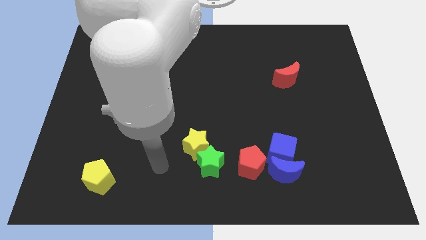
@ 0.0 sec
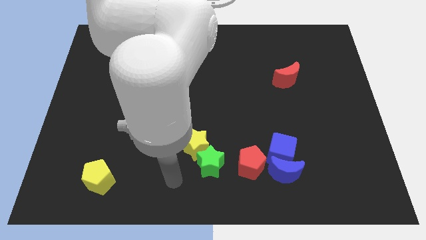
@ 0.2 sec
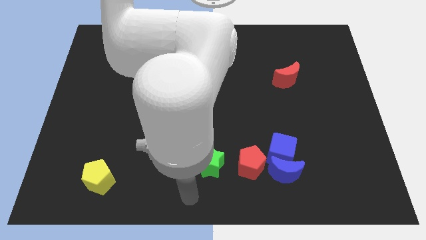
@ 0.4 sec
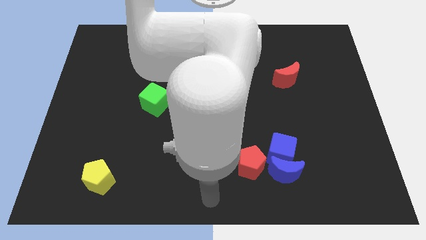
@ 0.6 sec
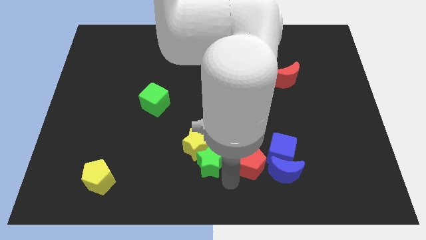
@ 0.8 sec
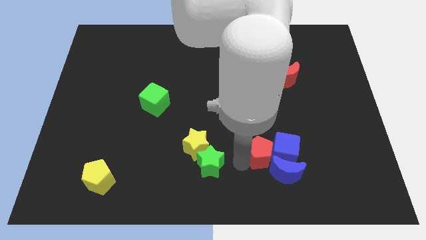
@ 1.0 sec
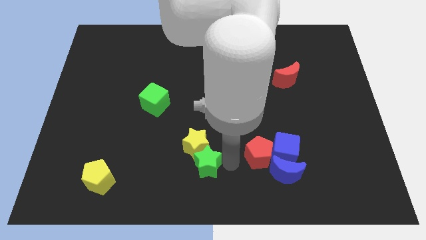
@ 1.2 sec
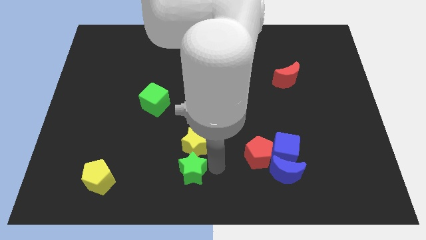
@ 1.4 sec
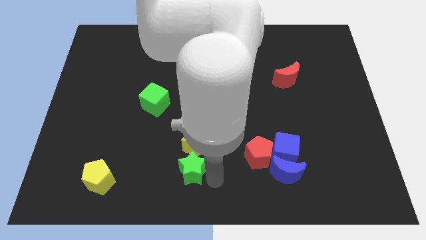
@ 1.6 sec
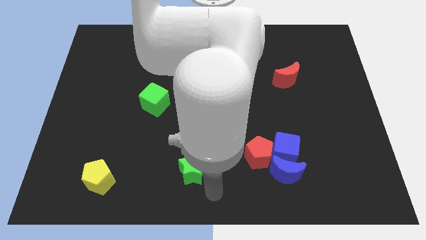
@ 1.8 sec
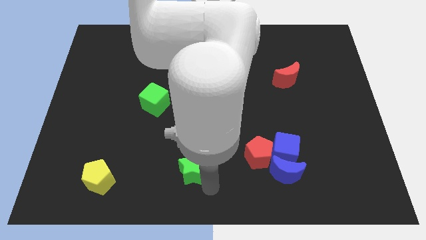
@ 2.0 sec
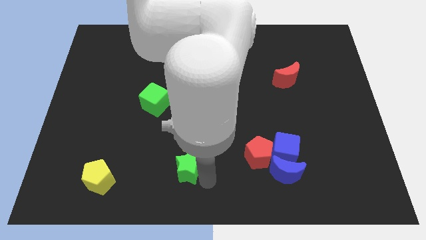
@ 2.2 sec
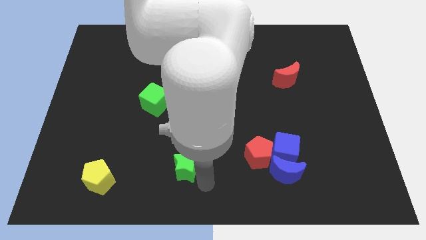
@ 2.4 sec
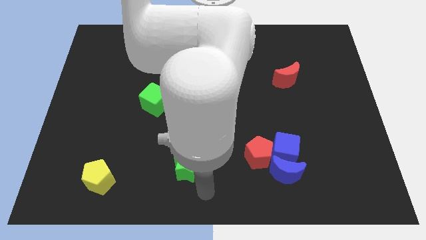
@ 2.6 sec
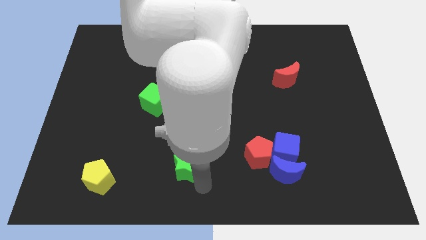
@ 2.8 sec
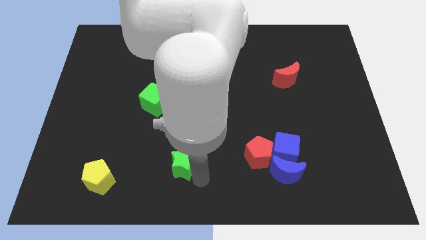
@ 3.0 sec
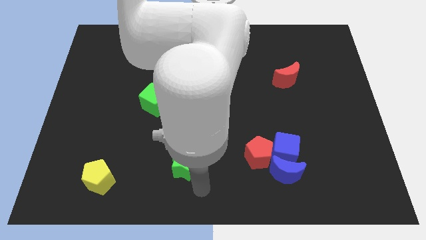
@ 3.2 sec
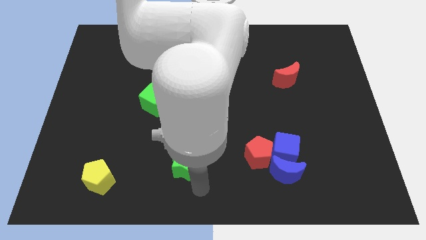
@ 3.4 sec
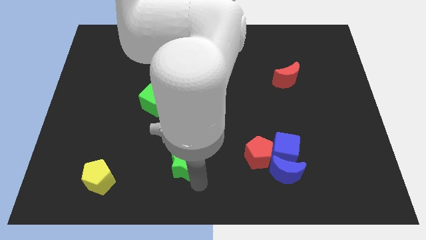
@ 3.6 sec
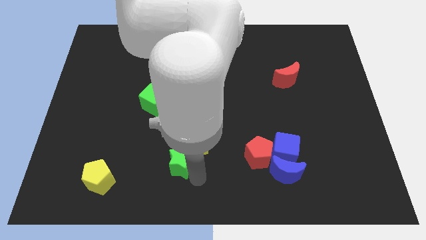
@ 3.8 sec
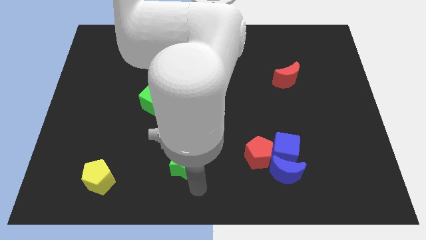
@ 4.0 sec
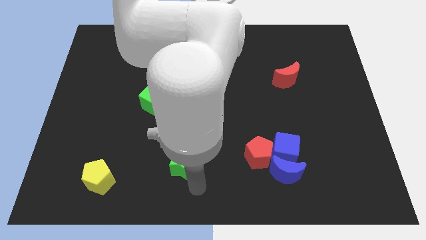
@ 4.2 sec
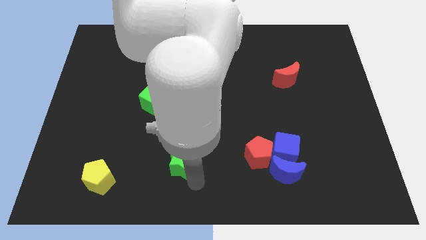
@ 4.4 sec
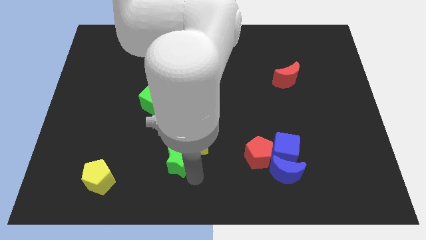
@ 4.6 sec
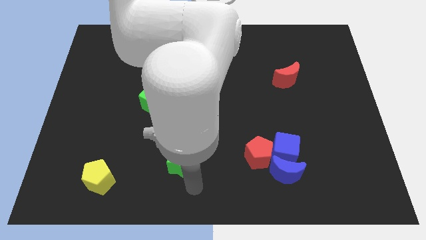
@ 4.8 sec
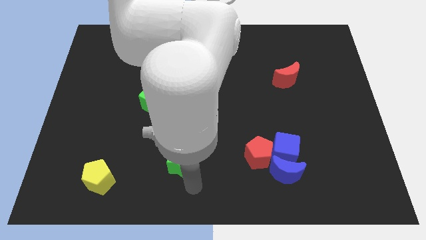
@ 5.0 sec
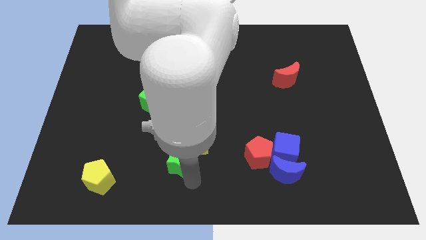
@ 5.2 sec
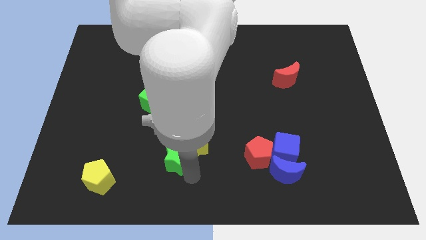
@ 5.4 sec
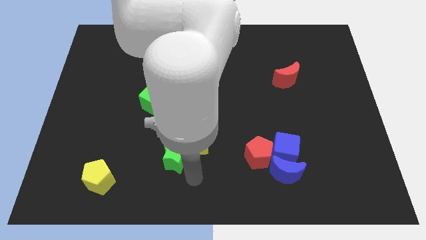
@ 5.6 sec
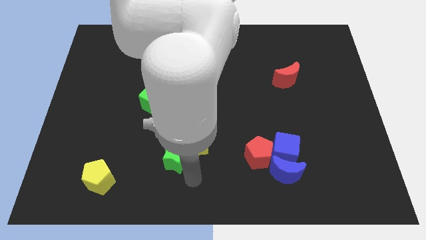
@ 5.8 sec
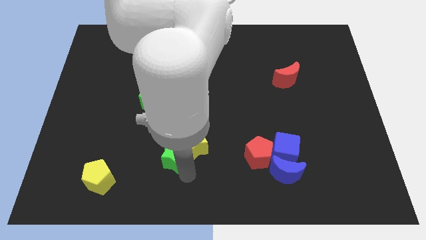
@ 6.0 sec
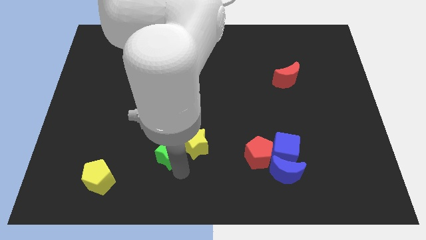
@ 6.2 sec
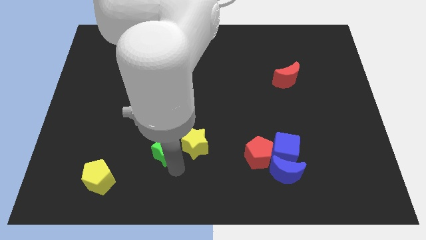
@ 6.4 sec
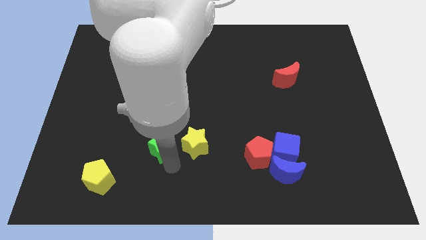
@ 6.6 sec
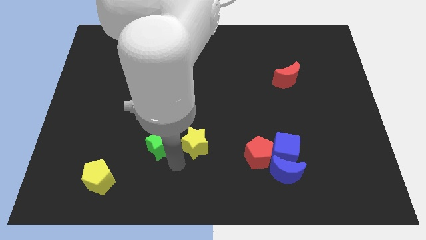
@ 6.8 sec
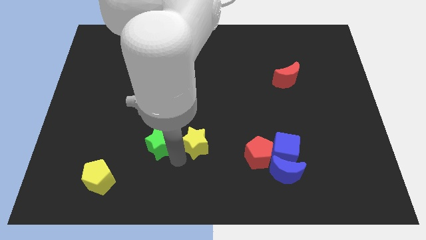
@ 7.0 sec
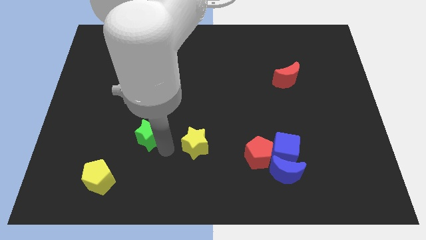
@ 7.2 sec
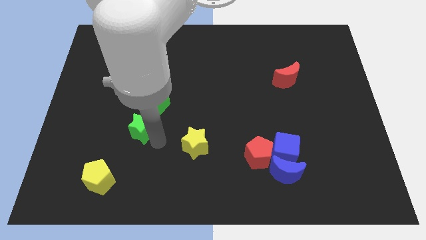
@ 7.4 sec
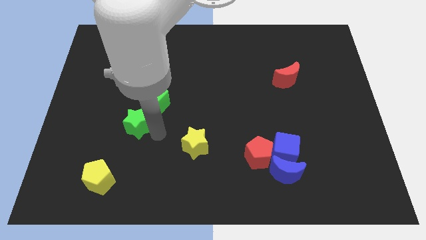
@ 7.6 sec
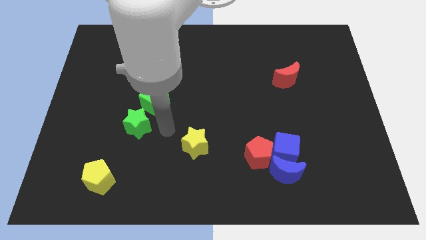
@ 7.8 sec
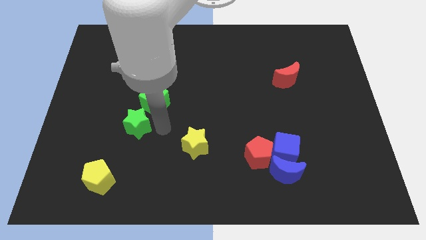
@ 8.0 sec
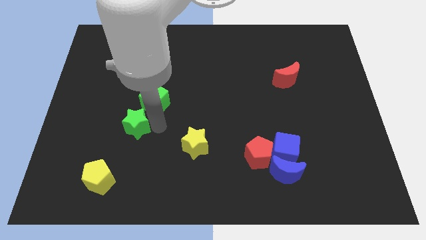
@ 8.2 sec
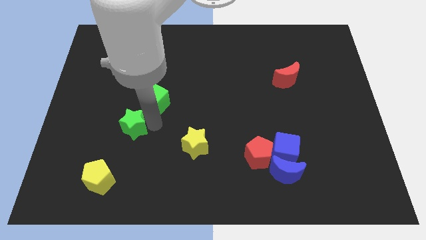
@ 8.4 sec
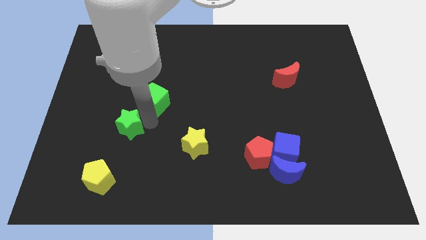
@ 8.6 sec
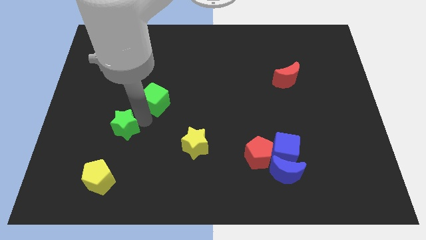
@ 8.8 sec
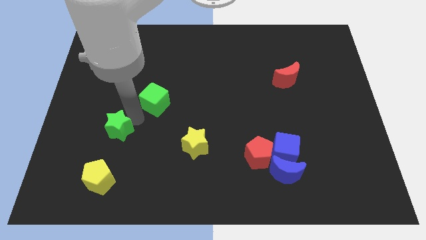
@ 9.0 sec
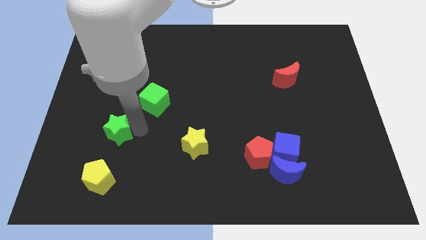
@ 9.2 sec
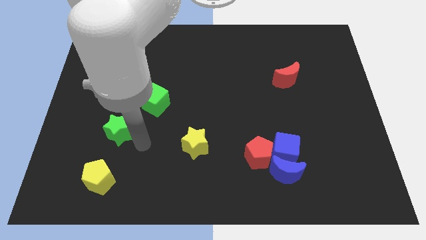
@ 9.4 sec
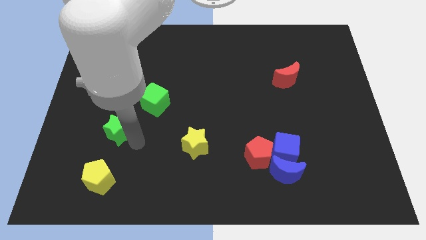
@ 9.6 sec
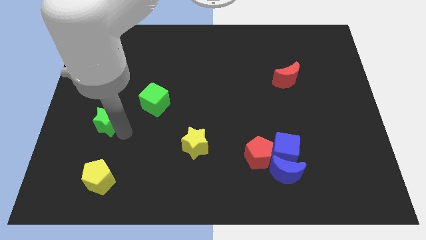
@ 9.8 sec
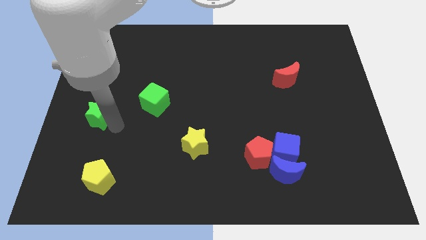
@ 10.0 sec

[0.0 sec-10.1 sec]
put the green star to the left side of the board
